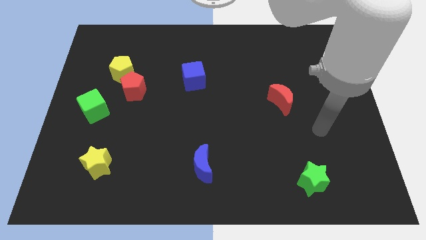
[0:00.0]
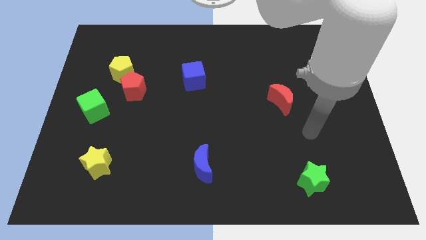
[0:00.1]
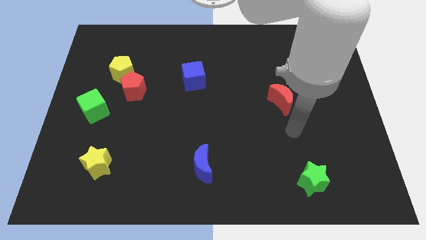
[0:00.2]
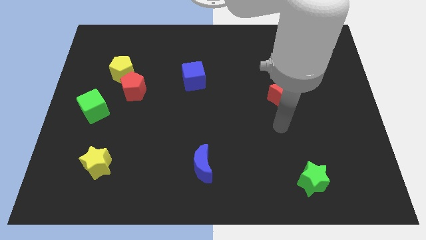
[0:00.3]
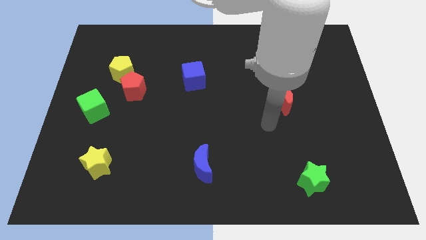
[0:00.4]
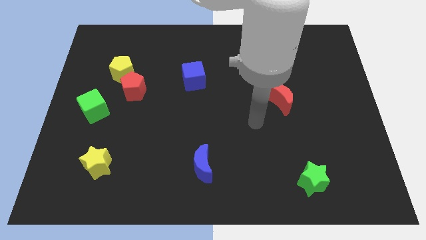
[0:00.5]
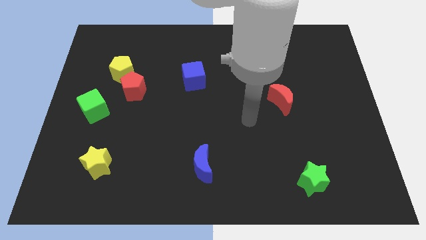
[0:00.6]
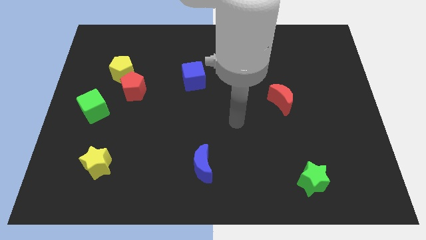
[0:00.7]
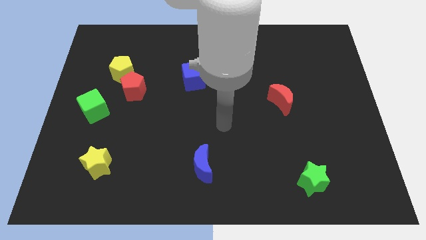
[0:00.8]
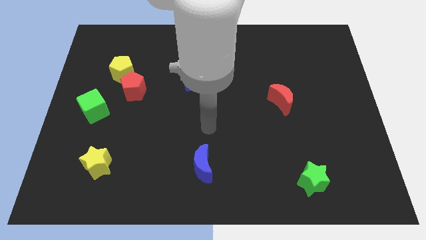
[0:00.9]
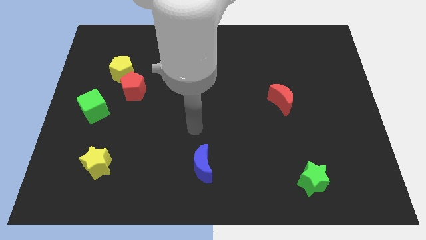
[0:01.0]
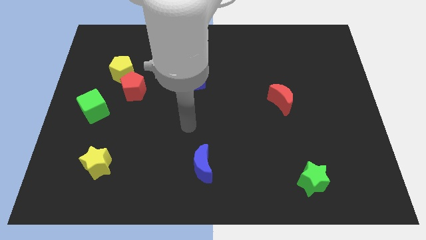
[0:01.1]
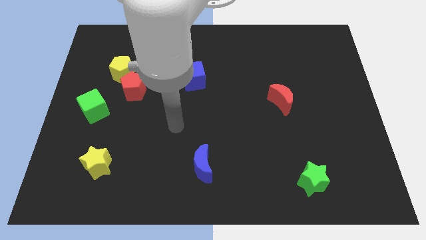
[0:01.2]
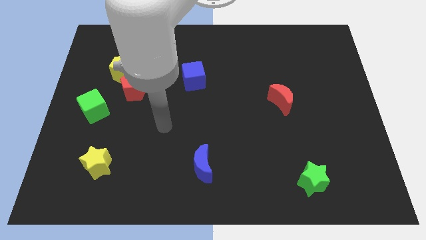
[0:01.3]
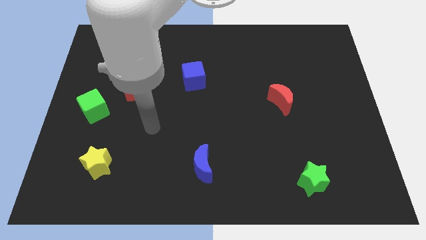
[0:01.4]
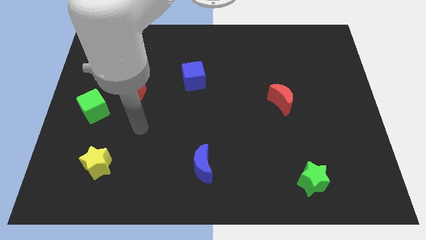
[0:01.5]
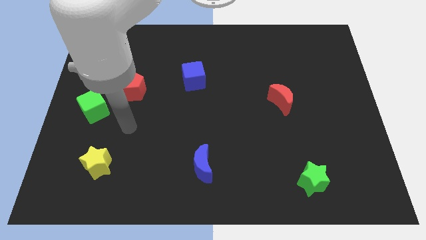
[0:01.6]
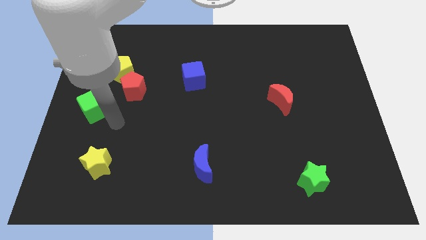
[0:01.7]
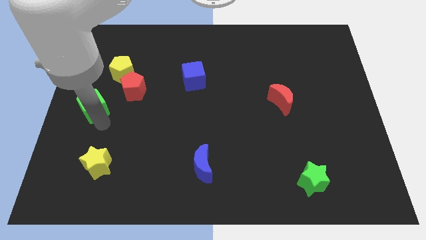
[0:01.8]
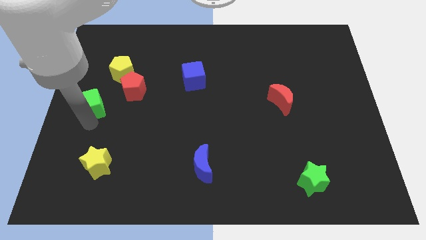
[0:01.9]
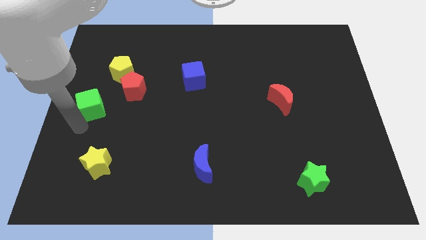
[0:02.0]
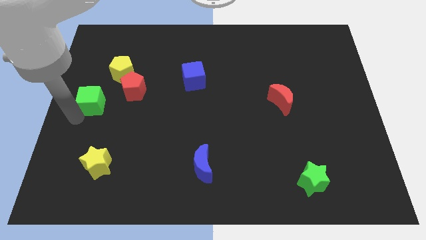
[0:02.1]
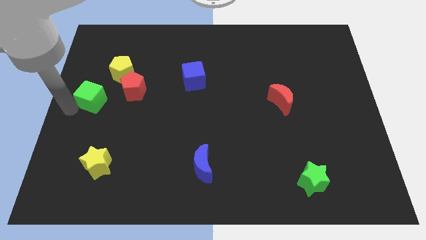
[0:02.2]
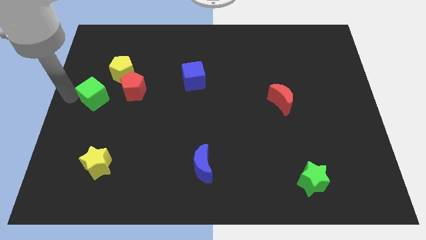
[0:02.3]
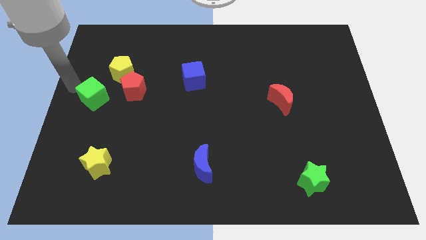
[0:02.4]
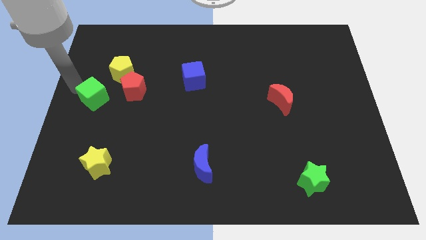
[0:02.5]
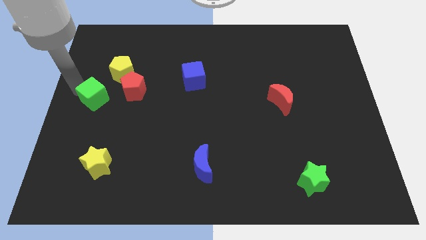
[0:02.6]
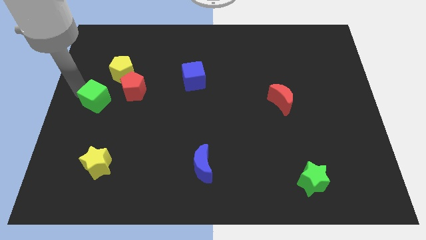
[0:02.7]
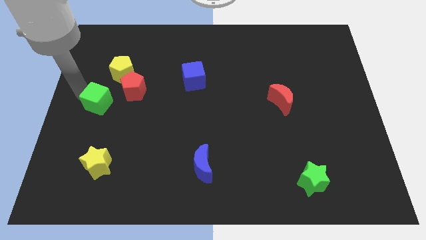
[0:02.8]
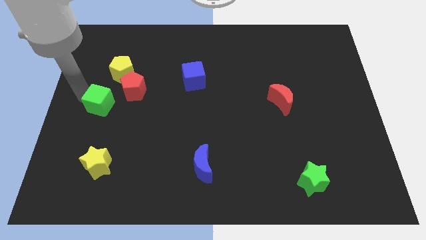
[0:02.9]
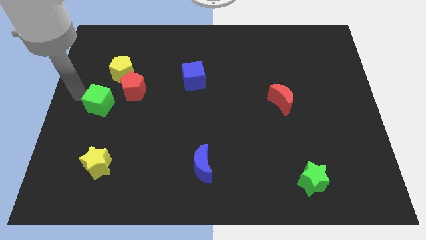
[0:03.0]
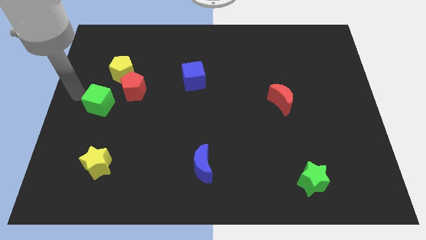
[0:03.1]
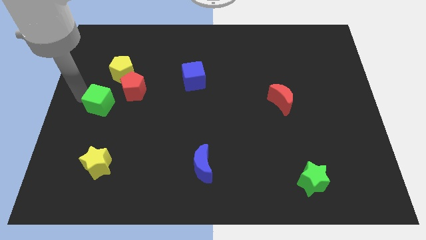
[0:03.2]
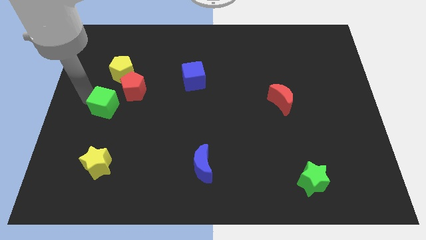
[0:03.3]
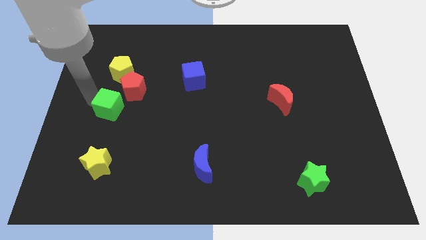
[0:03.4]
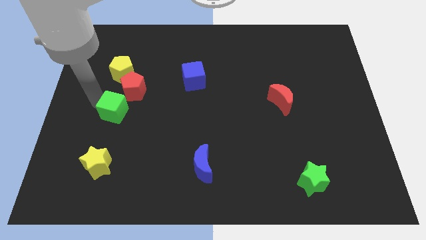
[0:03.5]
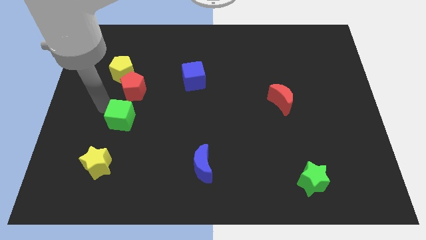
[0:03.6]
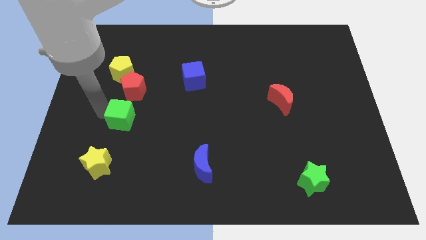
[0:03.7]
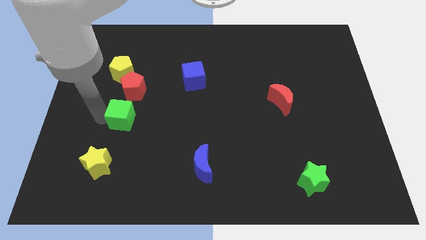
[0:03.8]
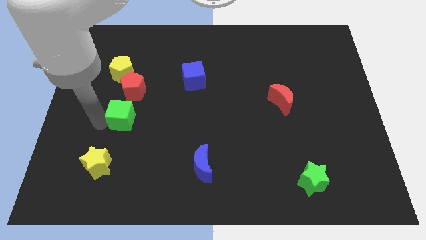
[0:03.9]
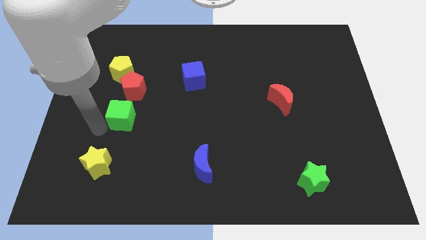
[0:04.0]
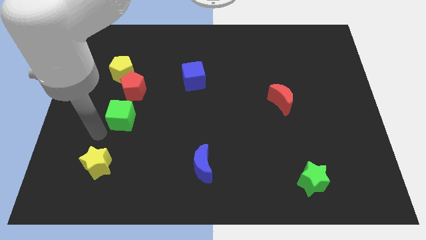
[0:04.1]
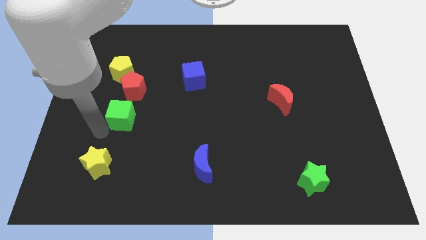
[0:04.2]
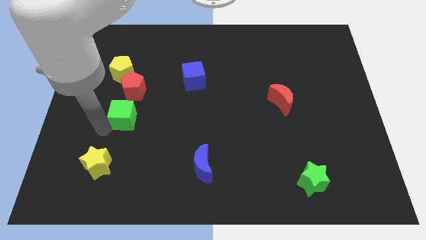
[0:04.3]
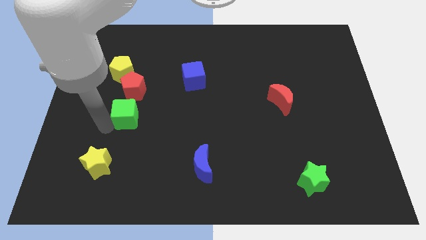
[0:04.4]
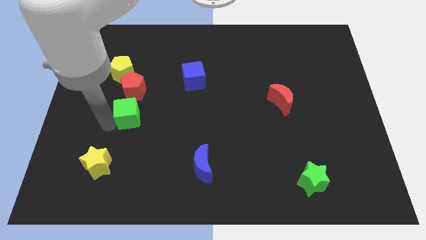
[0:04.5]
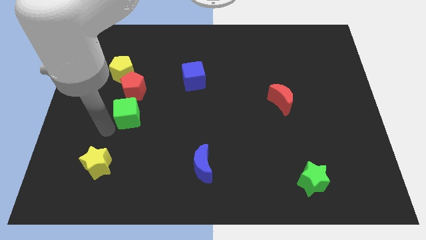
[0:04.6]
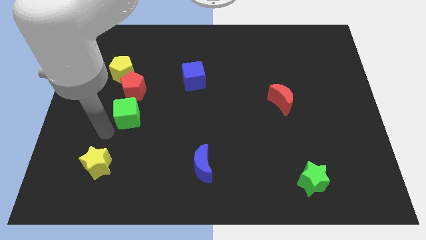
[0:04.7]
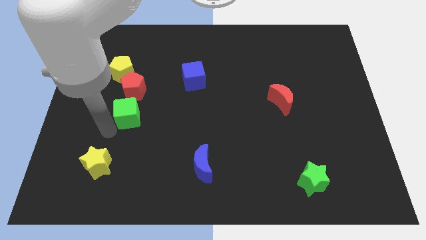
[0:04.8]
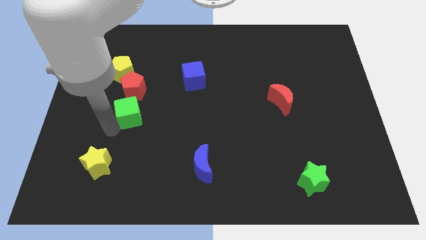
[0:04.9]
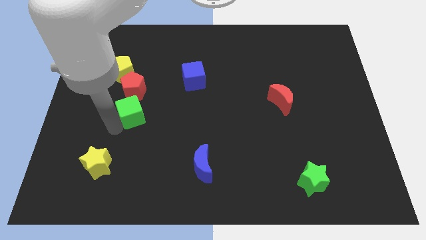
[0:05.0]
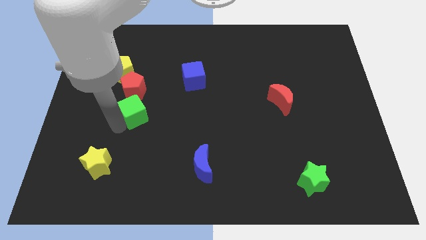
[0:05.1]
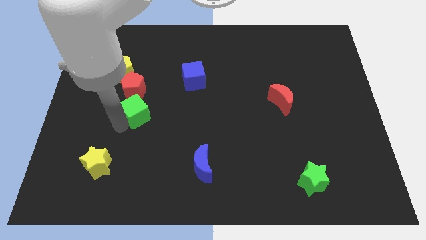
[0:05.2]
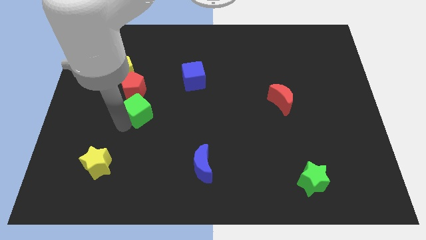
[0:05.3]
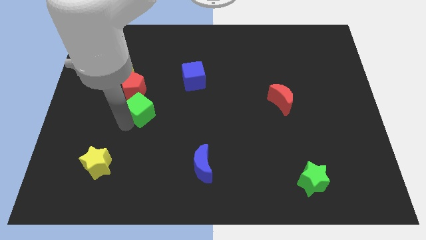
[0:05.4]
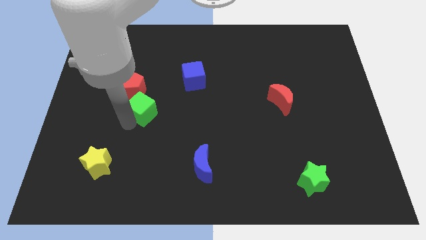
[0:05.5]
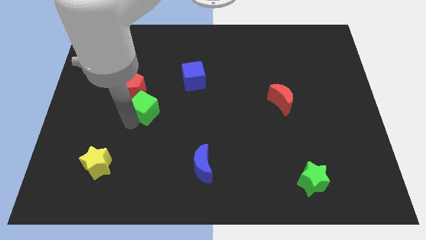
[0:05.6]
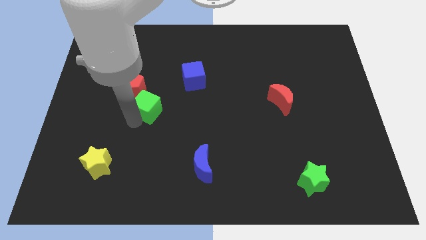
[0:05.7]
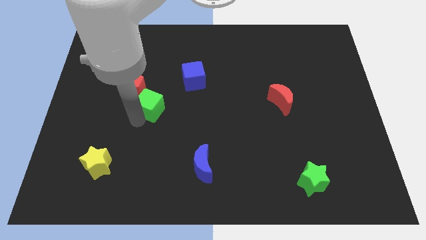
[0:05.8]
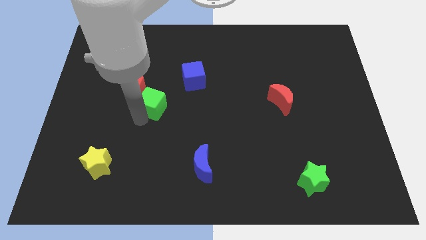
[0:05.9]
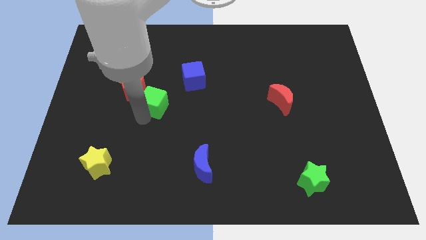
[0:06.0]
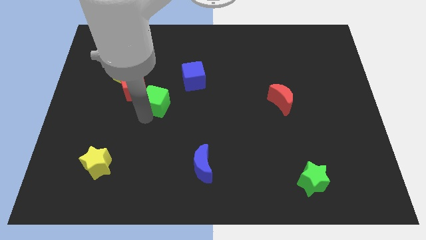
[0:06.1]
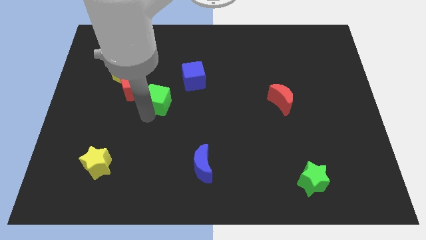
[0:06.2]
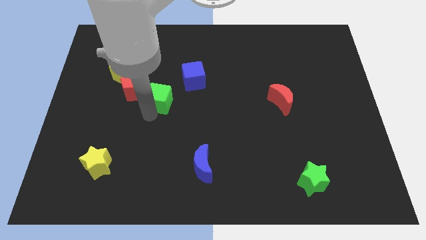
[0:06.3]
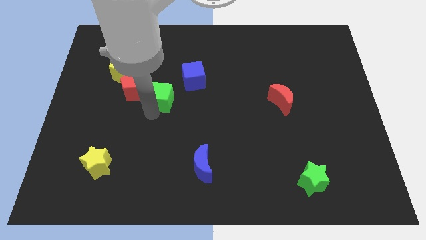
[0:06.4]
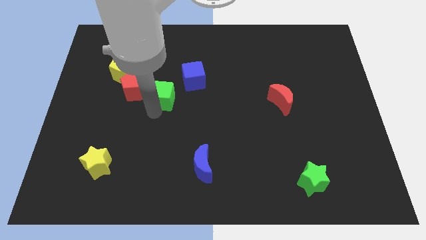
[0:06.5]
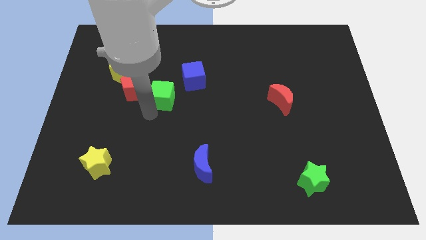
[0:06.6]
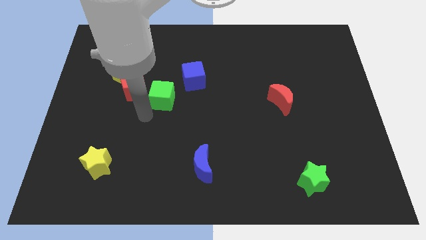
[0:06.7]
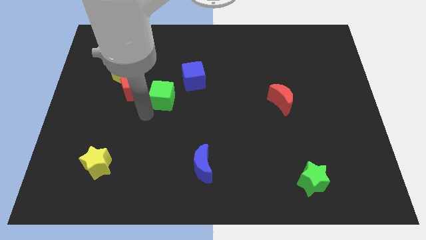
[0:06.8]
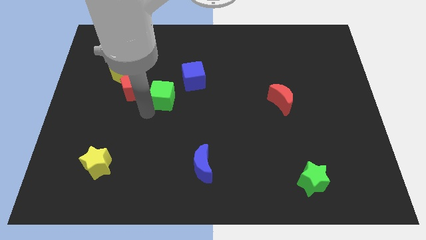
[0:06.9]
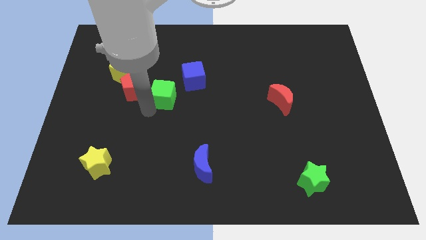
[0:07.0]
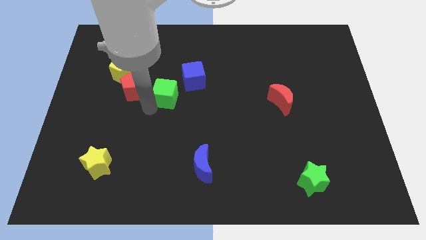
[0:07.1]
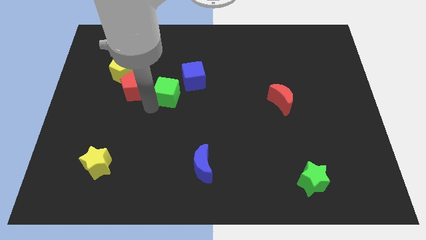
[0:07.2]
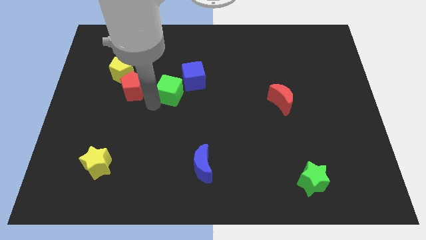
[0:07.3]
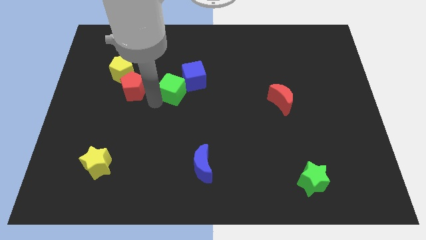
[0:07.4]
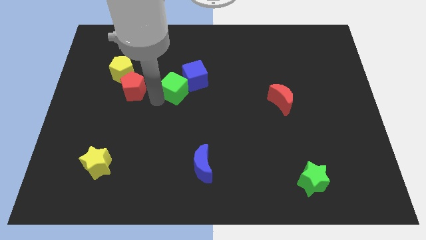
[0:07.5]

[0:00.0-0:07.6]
move the green cube next to the blue cube

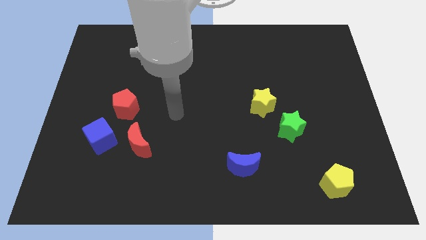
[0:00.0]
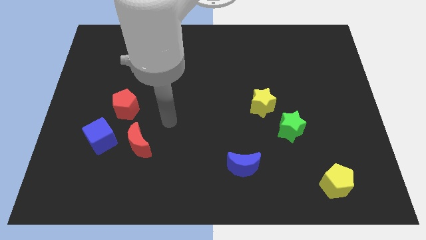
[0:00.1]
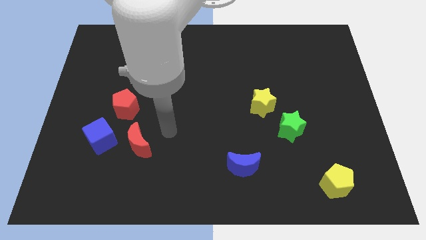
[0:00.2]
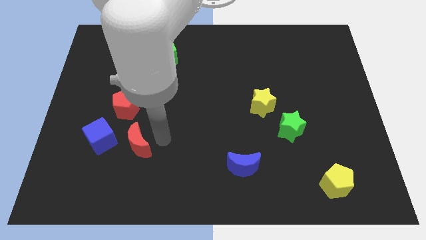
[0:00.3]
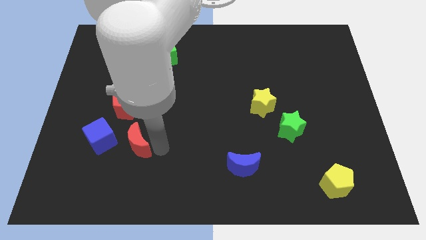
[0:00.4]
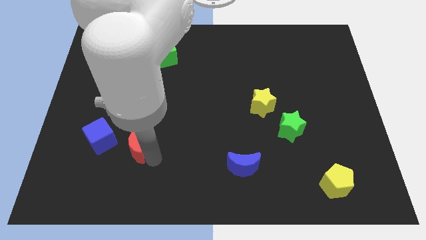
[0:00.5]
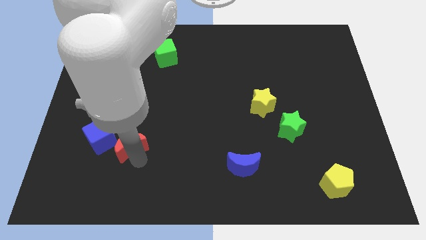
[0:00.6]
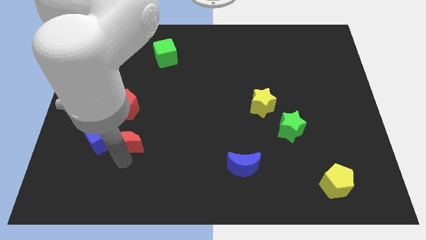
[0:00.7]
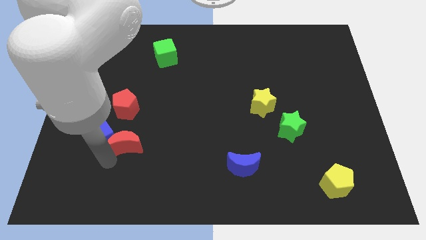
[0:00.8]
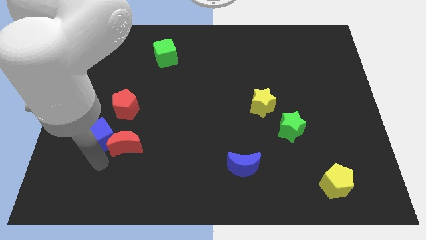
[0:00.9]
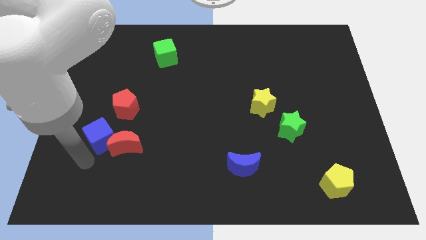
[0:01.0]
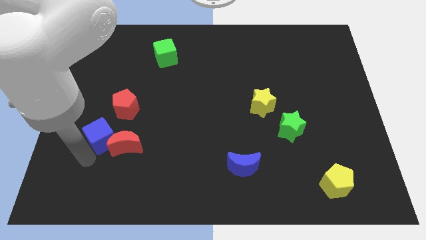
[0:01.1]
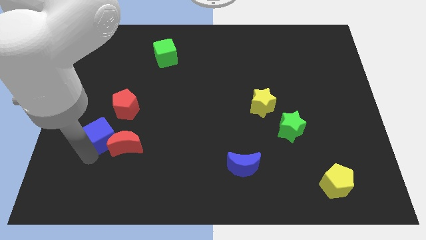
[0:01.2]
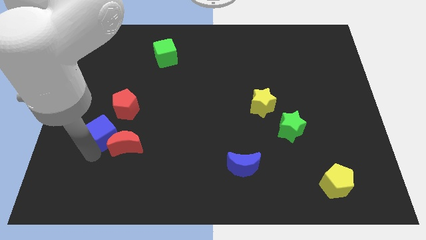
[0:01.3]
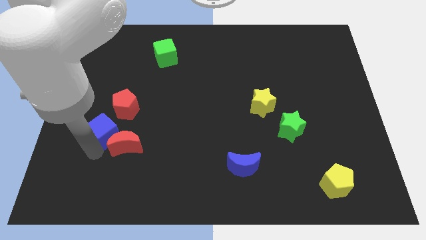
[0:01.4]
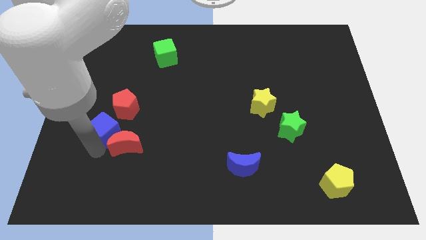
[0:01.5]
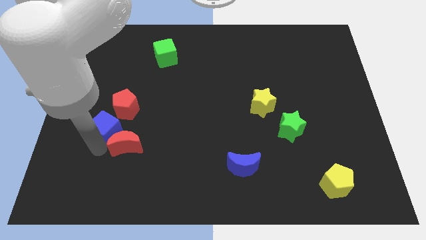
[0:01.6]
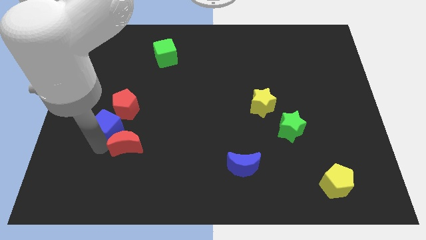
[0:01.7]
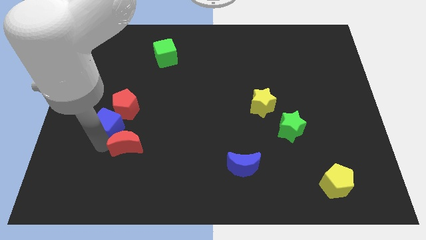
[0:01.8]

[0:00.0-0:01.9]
put the blue cube next to the red pentagon
